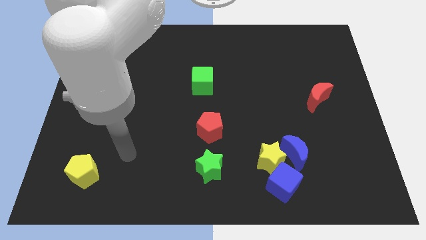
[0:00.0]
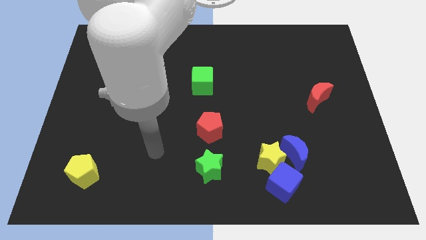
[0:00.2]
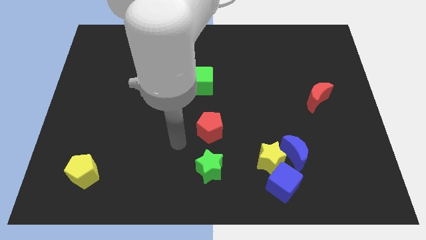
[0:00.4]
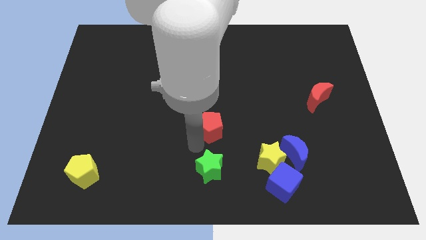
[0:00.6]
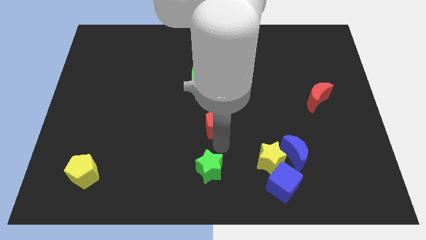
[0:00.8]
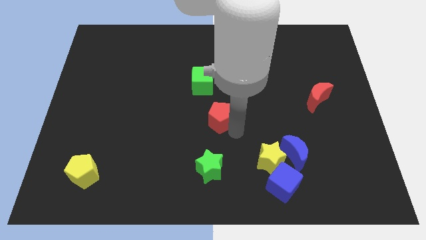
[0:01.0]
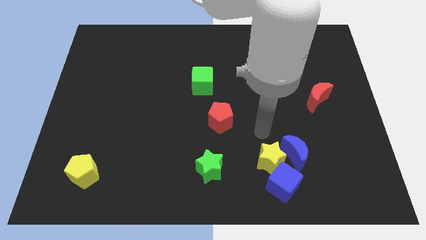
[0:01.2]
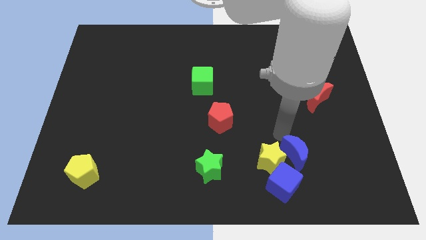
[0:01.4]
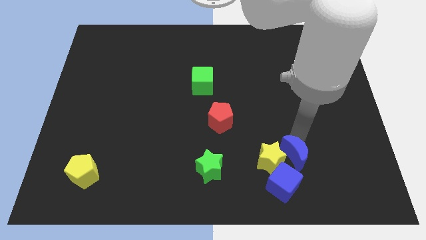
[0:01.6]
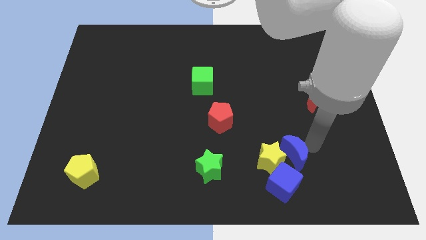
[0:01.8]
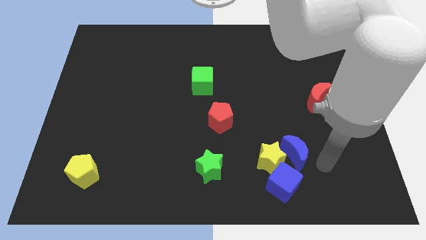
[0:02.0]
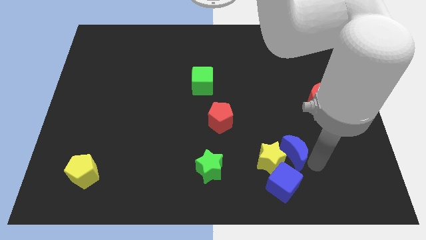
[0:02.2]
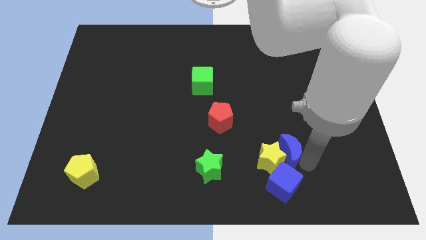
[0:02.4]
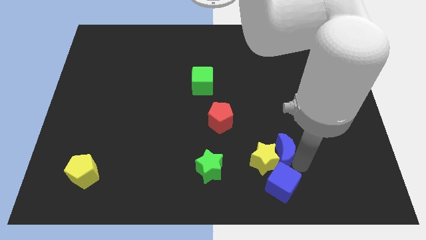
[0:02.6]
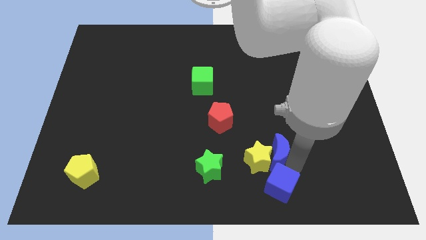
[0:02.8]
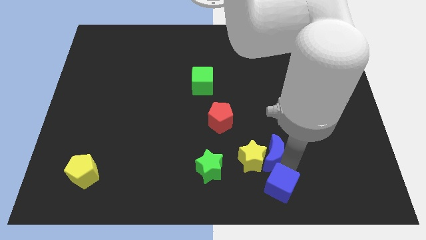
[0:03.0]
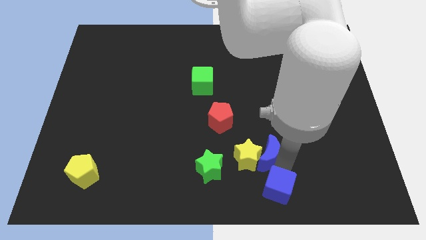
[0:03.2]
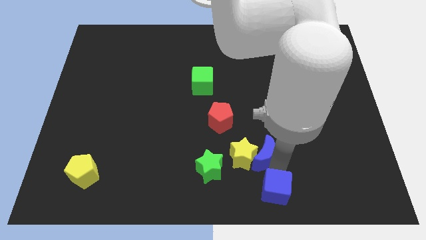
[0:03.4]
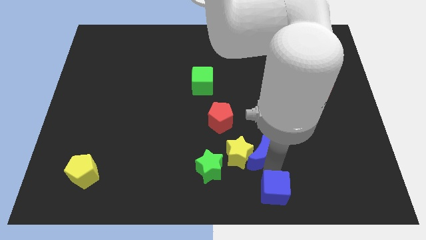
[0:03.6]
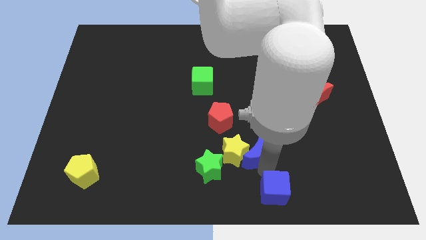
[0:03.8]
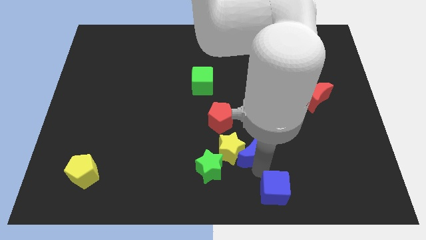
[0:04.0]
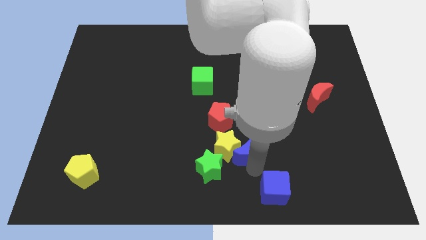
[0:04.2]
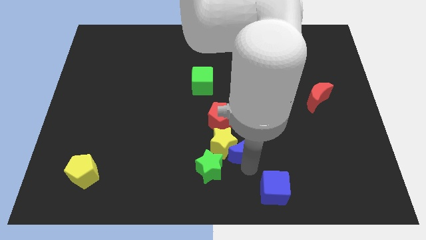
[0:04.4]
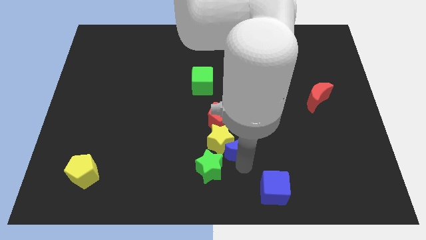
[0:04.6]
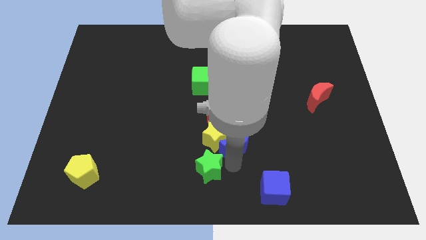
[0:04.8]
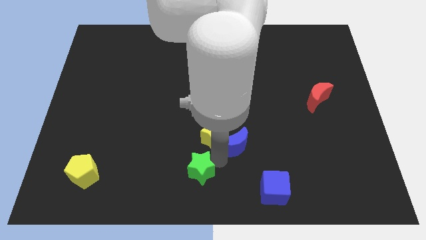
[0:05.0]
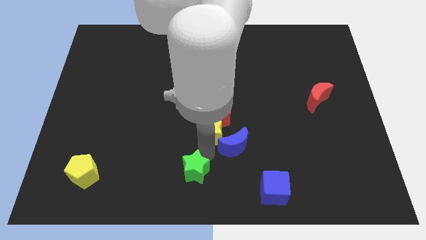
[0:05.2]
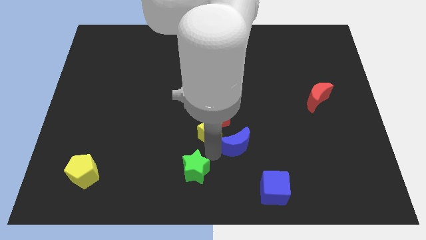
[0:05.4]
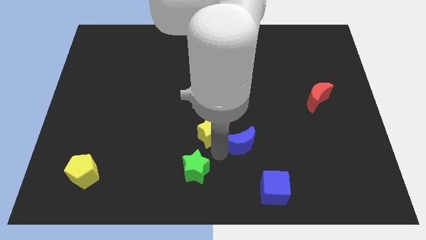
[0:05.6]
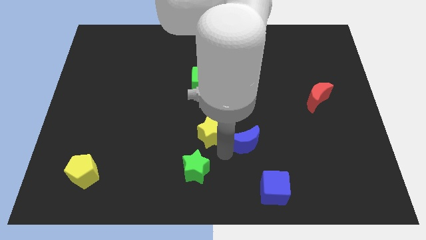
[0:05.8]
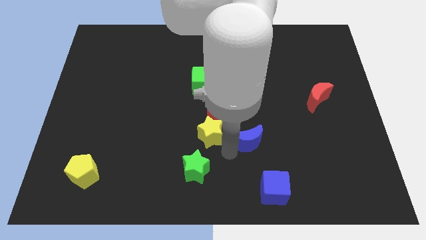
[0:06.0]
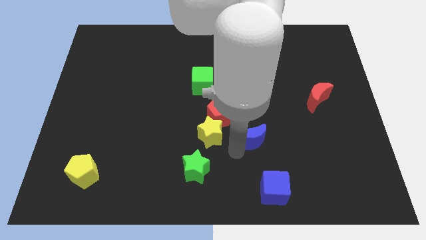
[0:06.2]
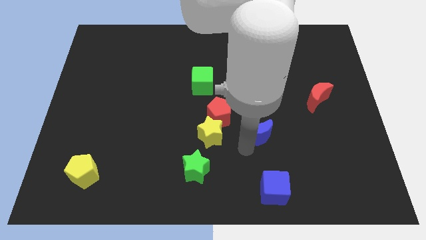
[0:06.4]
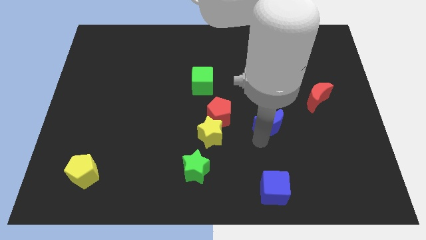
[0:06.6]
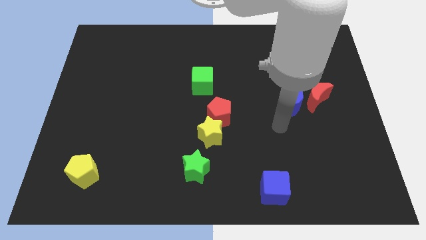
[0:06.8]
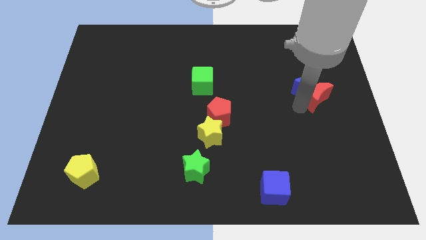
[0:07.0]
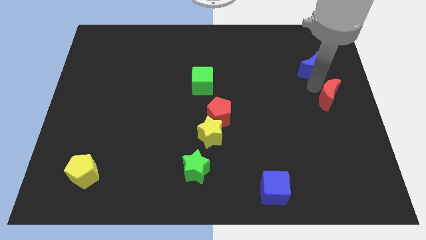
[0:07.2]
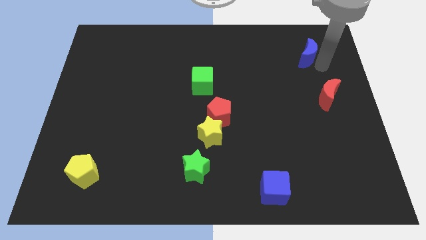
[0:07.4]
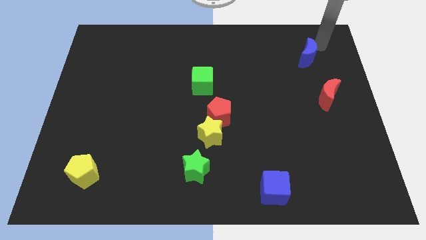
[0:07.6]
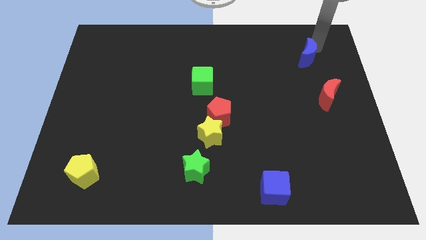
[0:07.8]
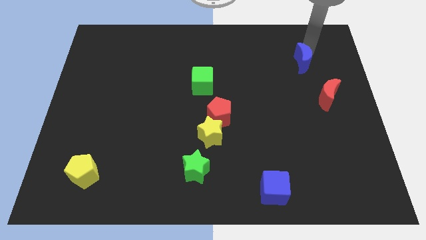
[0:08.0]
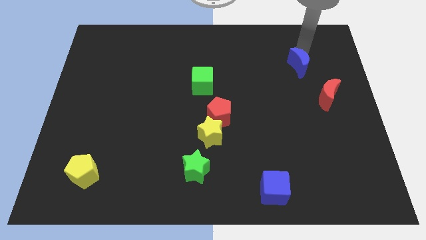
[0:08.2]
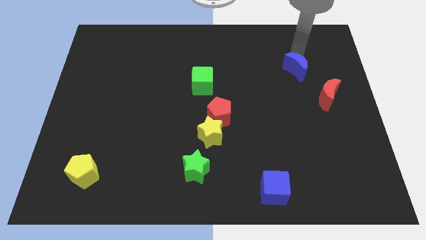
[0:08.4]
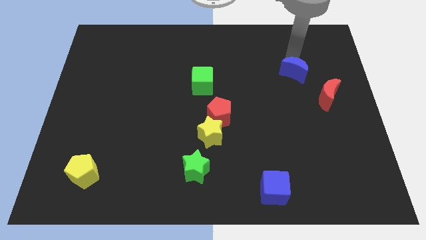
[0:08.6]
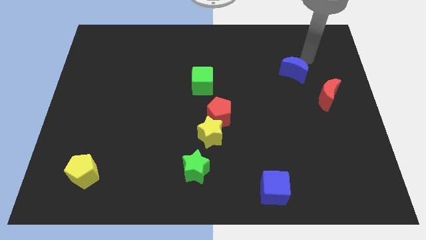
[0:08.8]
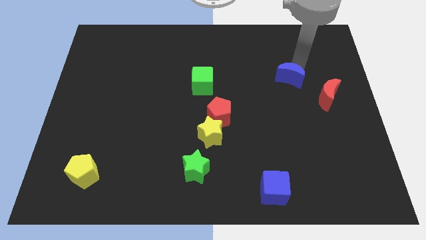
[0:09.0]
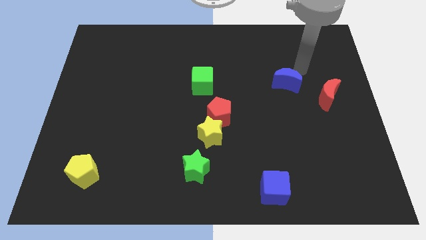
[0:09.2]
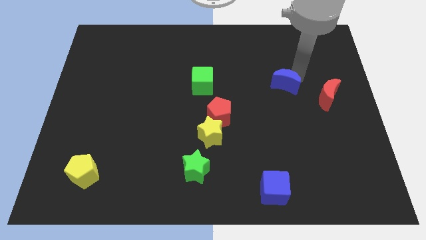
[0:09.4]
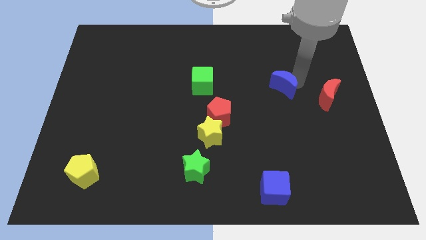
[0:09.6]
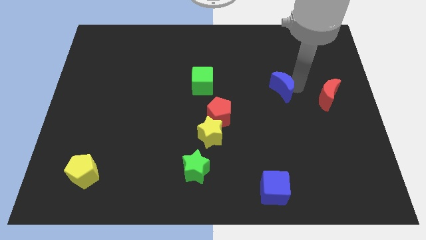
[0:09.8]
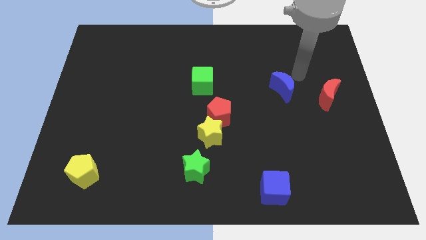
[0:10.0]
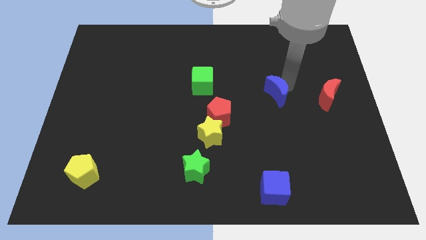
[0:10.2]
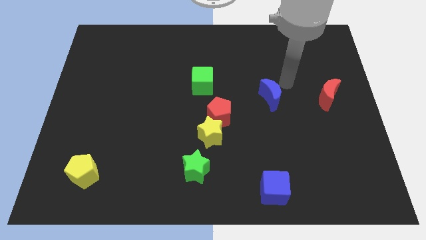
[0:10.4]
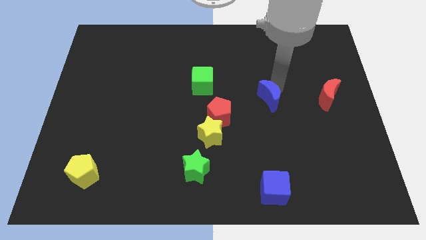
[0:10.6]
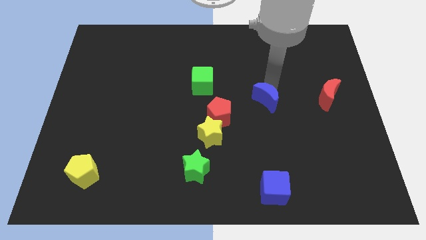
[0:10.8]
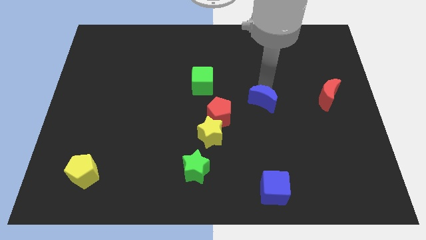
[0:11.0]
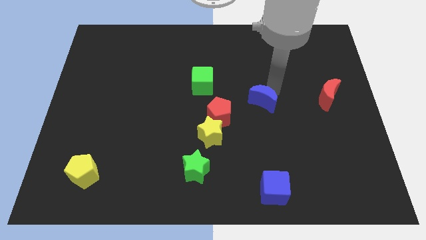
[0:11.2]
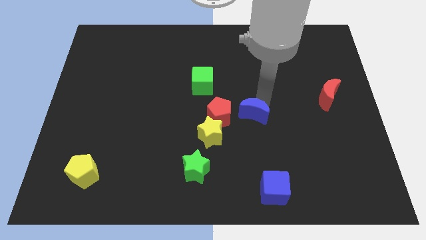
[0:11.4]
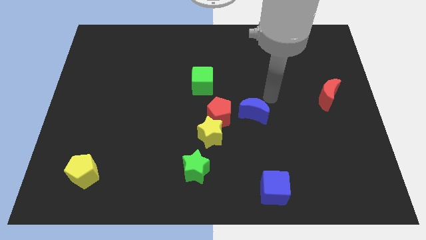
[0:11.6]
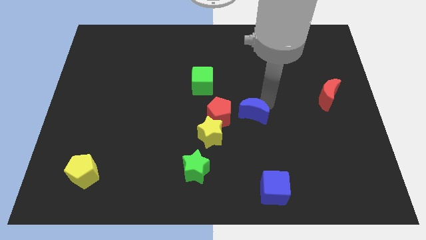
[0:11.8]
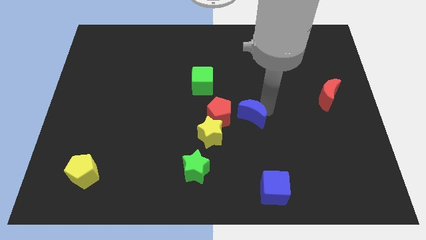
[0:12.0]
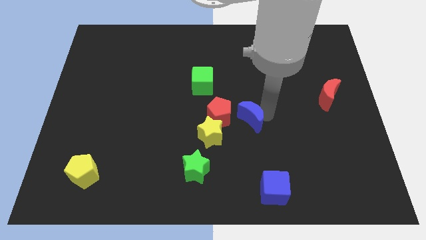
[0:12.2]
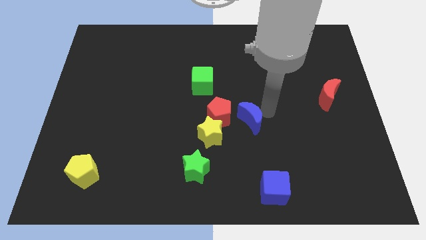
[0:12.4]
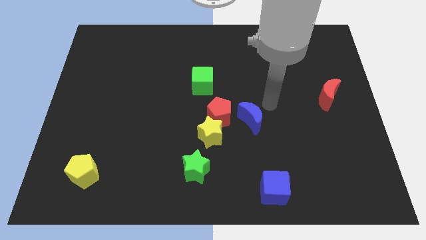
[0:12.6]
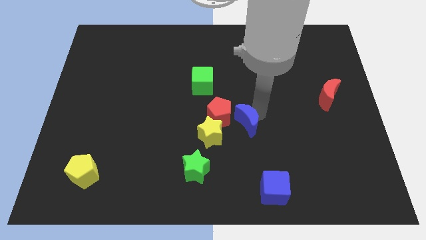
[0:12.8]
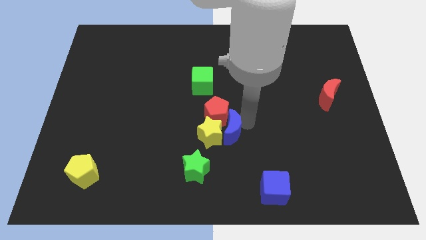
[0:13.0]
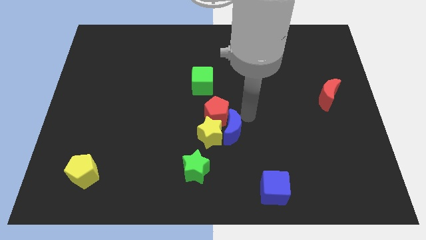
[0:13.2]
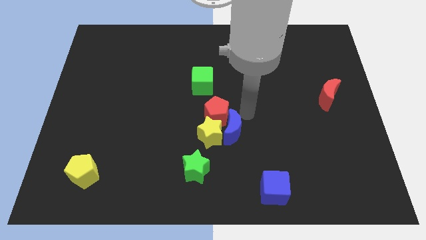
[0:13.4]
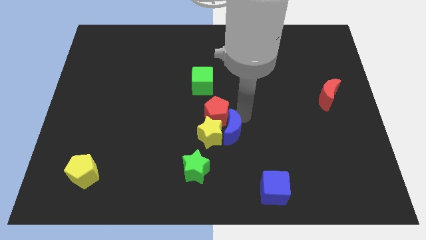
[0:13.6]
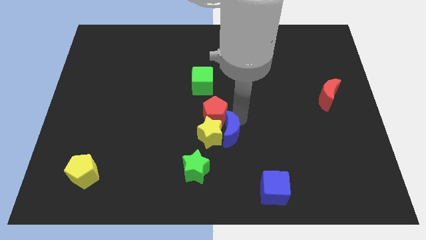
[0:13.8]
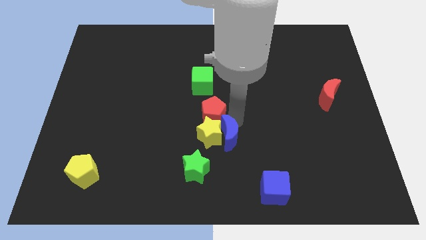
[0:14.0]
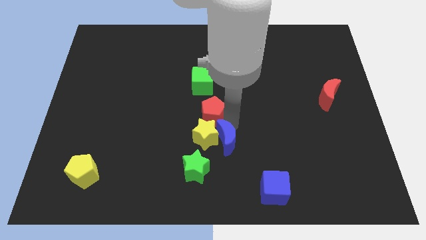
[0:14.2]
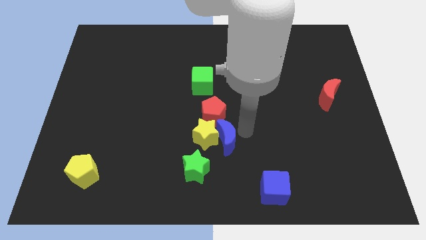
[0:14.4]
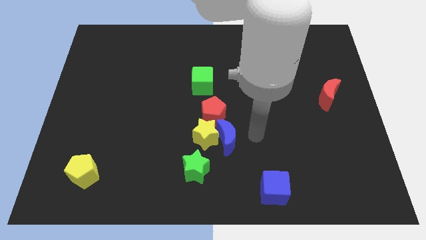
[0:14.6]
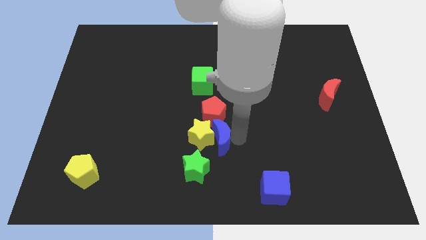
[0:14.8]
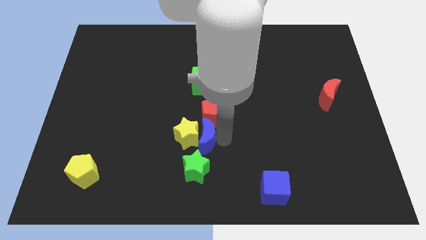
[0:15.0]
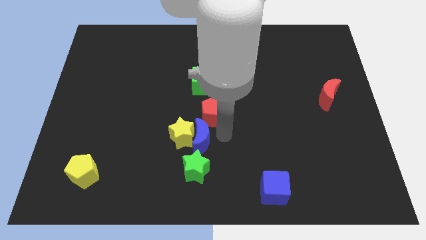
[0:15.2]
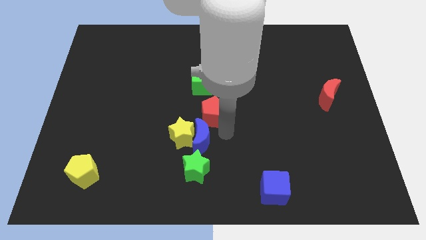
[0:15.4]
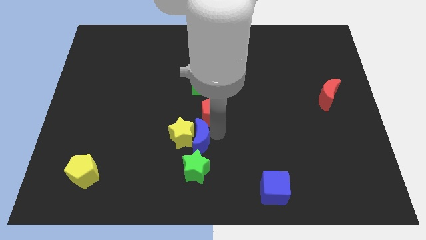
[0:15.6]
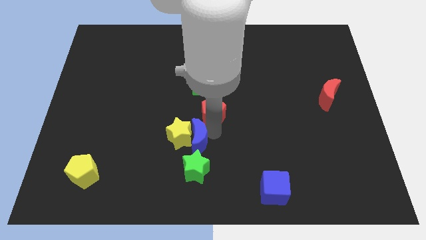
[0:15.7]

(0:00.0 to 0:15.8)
slide the blue moon left
